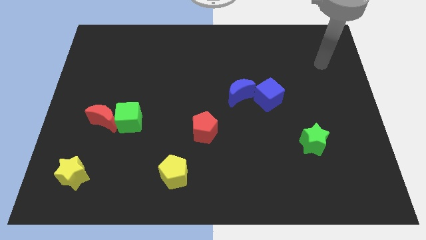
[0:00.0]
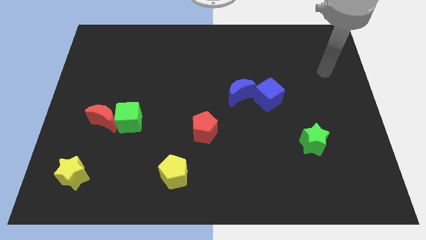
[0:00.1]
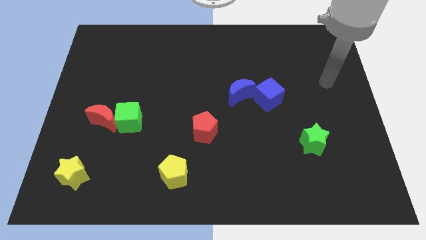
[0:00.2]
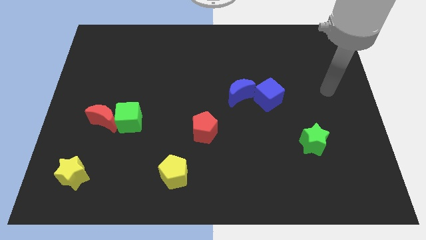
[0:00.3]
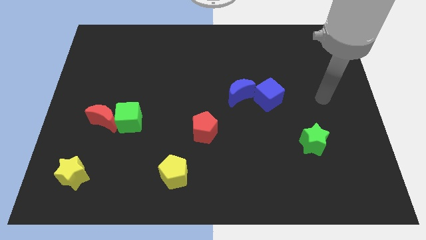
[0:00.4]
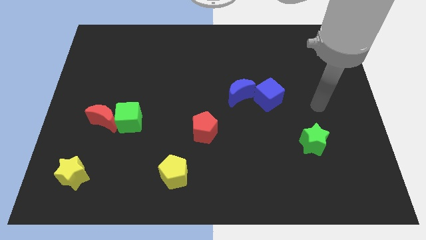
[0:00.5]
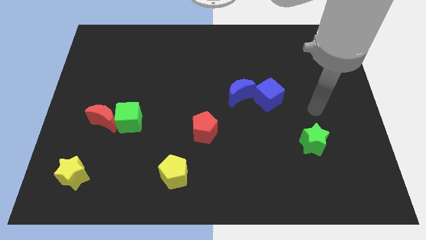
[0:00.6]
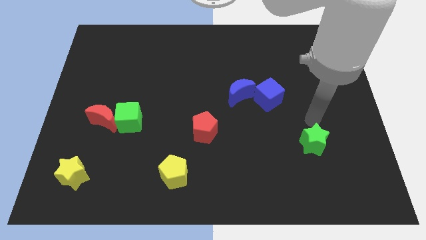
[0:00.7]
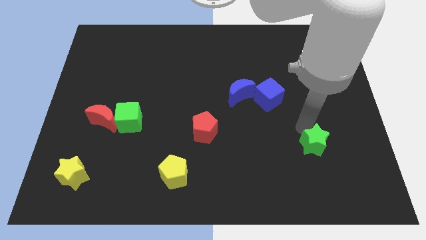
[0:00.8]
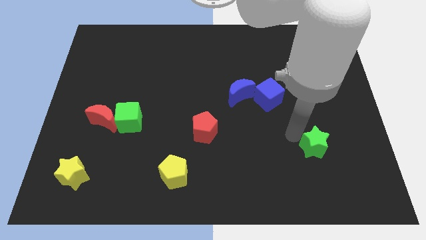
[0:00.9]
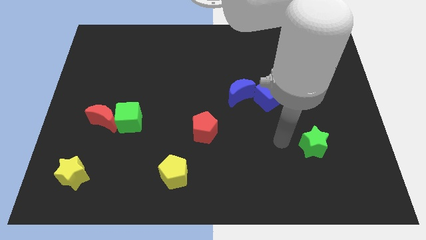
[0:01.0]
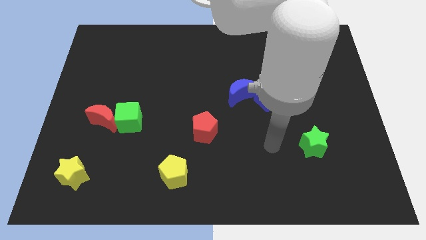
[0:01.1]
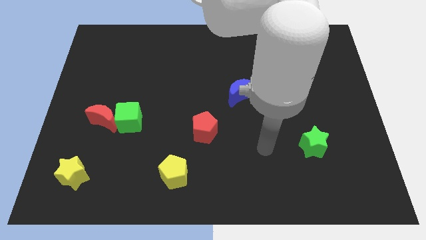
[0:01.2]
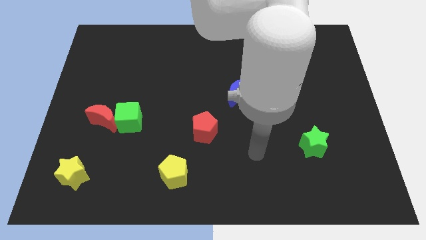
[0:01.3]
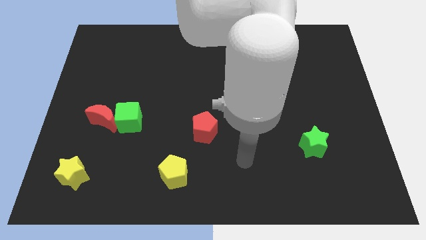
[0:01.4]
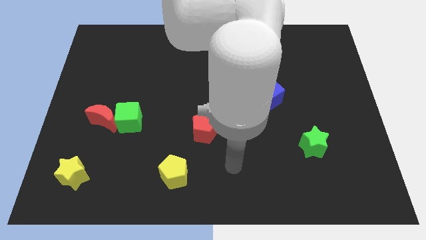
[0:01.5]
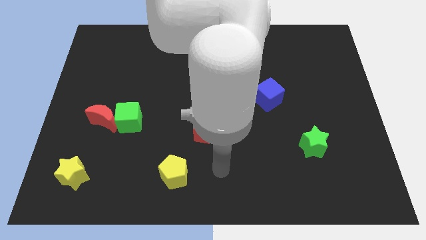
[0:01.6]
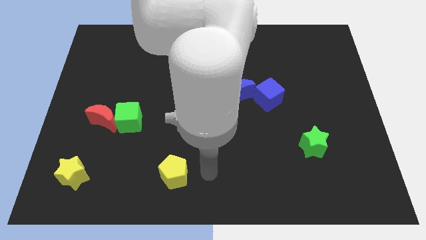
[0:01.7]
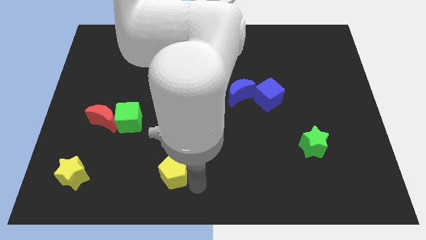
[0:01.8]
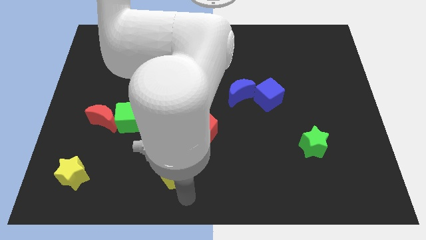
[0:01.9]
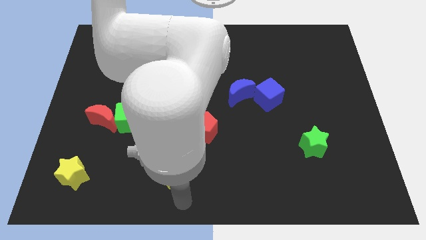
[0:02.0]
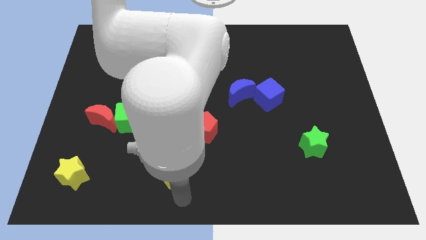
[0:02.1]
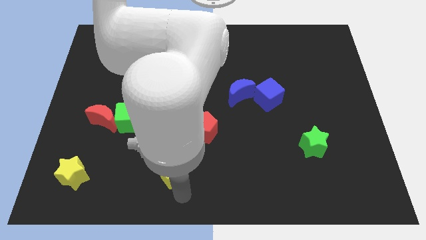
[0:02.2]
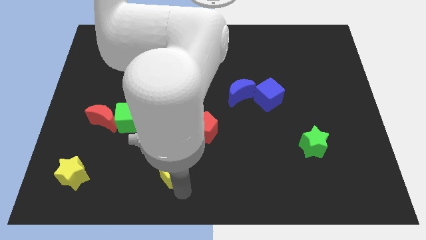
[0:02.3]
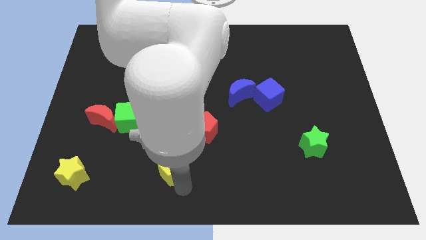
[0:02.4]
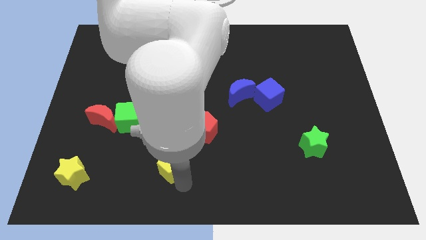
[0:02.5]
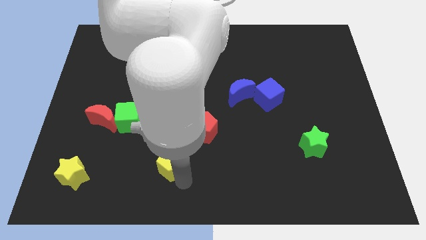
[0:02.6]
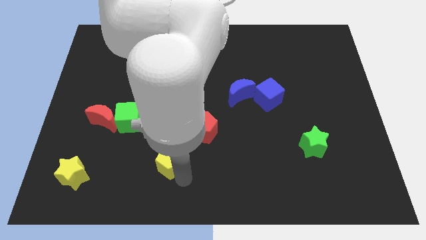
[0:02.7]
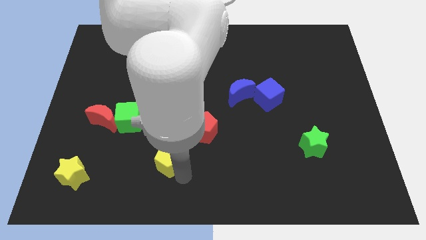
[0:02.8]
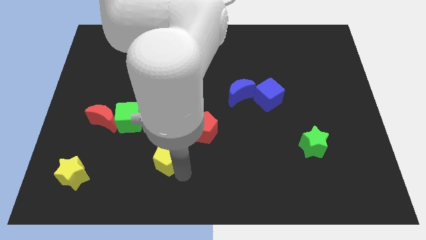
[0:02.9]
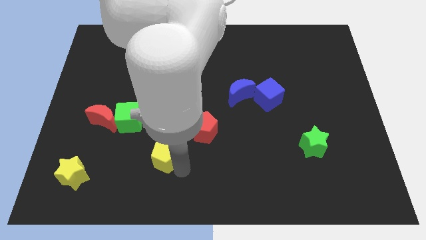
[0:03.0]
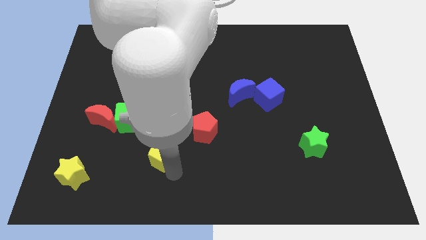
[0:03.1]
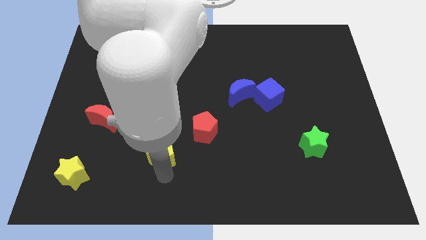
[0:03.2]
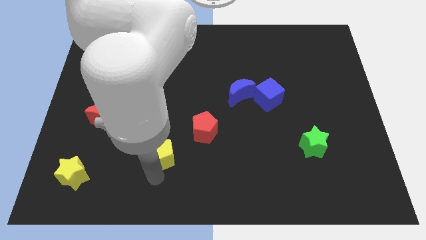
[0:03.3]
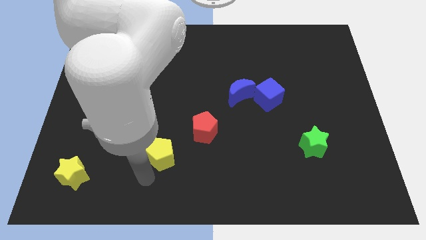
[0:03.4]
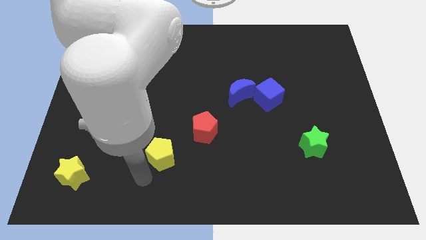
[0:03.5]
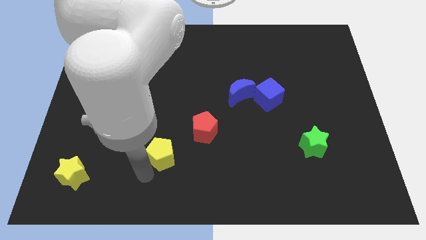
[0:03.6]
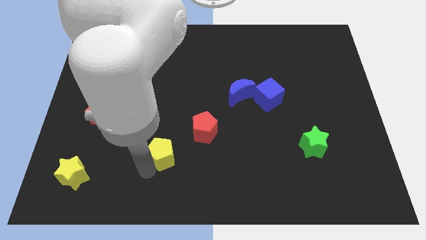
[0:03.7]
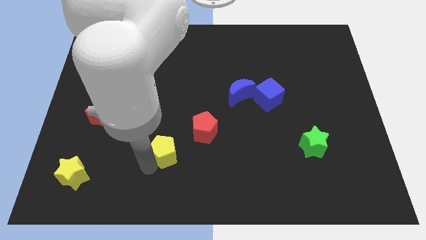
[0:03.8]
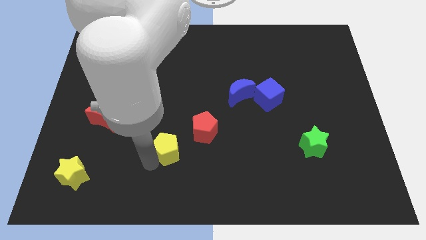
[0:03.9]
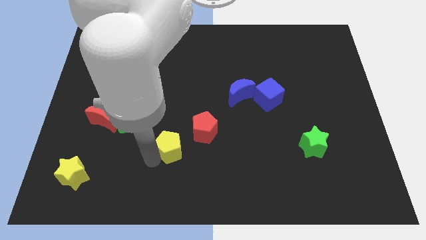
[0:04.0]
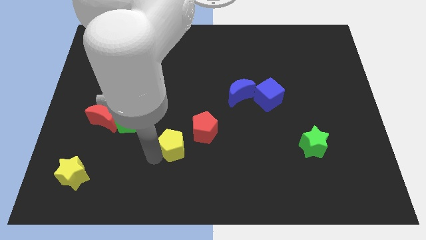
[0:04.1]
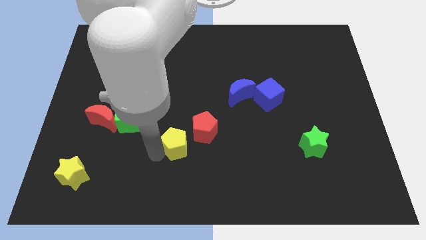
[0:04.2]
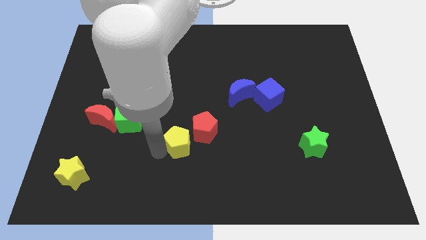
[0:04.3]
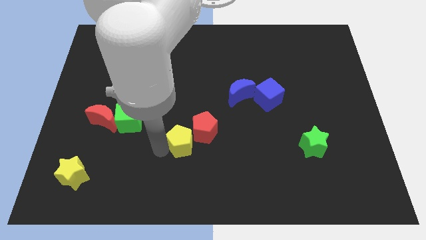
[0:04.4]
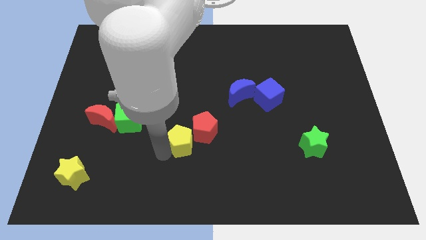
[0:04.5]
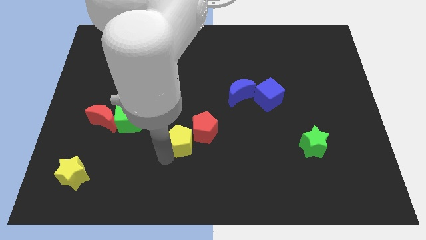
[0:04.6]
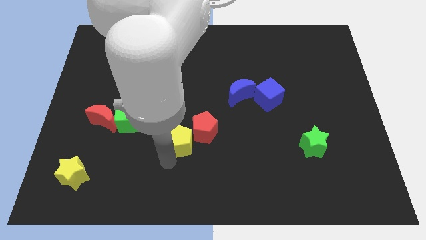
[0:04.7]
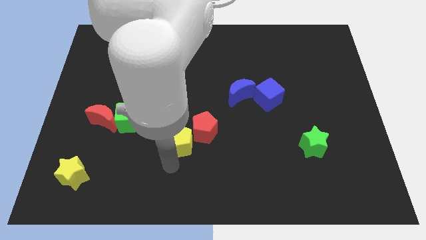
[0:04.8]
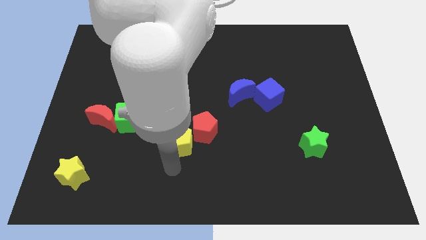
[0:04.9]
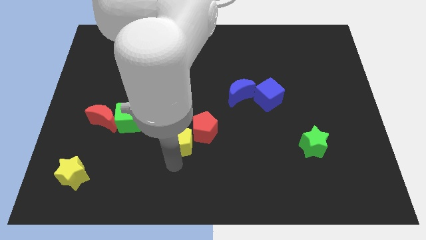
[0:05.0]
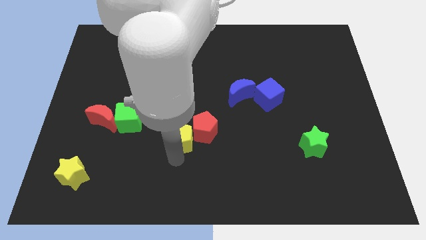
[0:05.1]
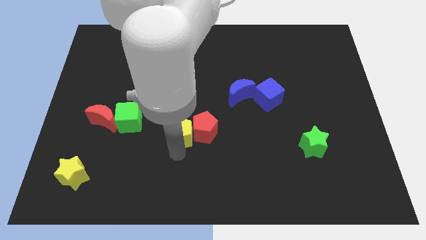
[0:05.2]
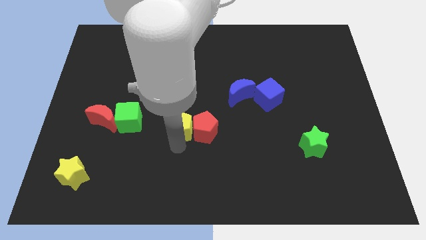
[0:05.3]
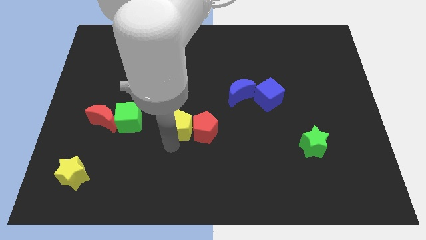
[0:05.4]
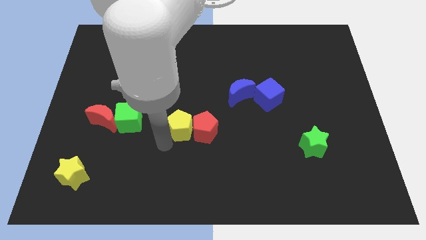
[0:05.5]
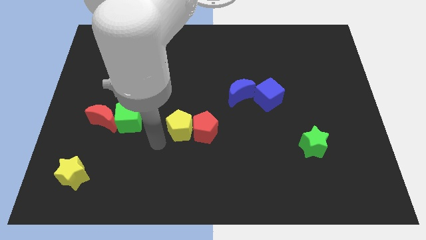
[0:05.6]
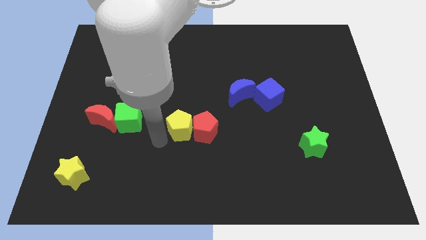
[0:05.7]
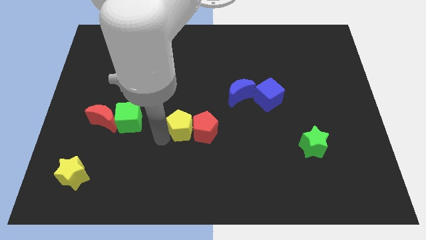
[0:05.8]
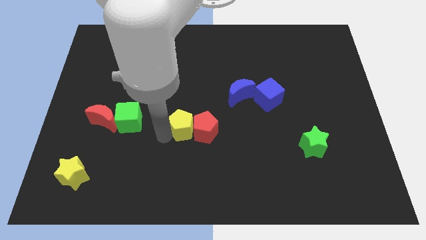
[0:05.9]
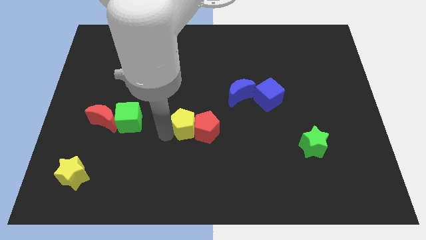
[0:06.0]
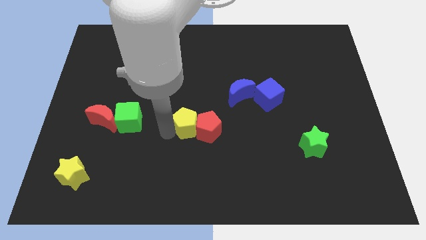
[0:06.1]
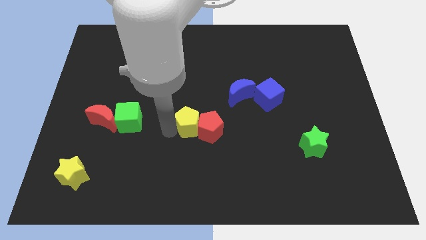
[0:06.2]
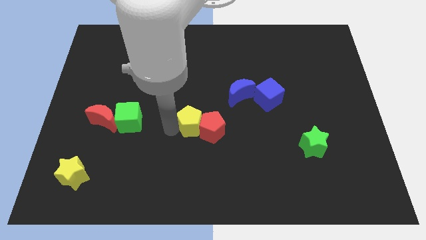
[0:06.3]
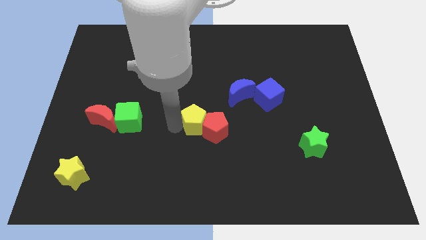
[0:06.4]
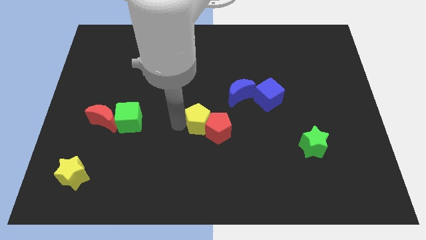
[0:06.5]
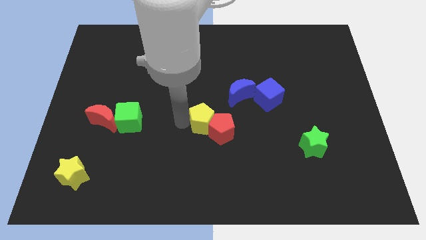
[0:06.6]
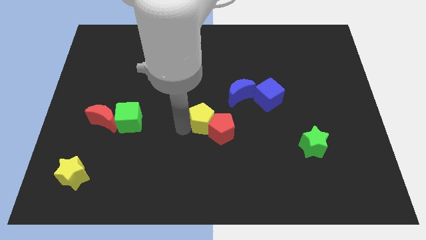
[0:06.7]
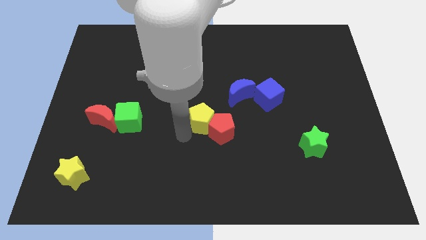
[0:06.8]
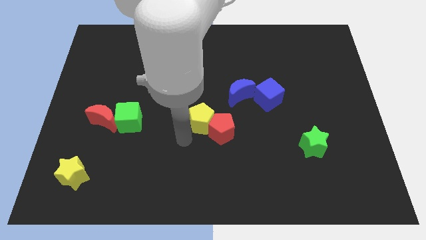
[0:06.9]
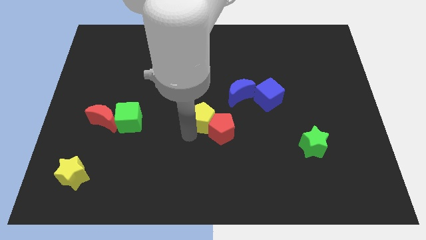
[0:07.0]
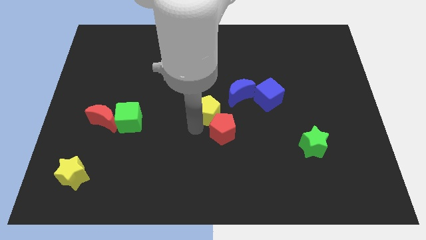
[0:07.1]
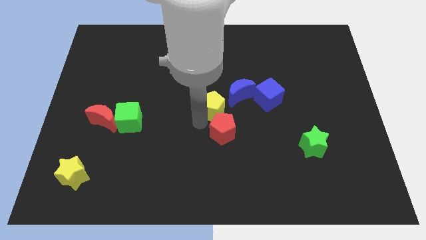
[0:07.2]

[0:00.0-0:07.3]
put the yellow pentagon left of the blue cube
